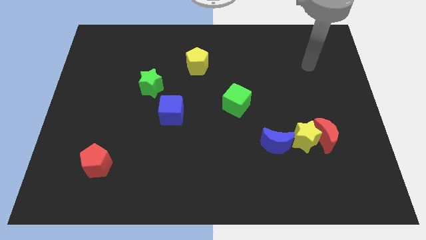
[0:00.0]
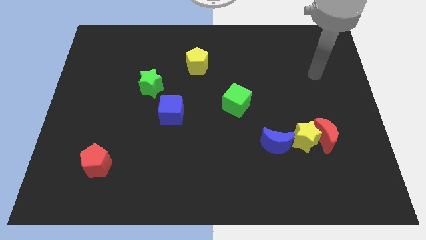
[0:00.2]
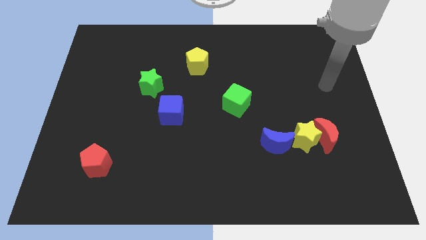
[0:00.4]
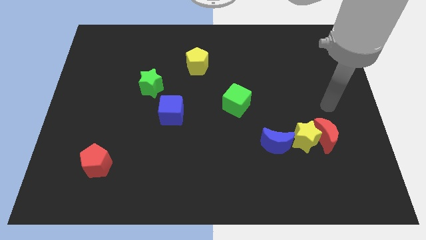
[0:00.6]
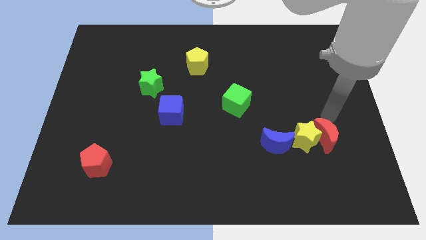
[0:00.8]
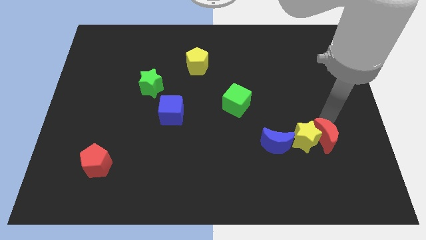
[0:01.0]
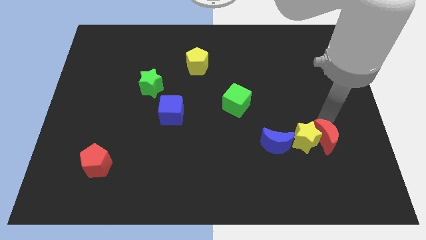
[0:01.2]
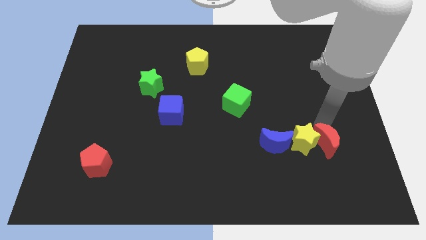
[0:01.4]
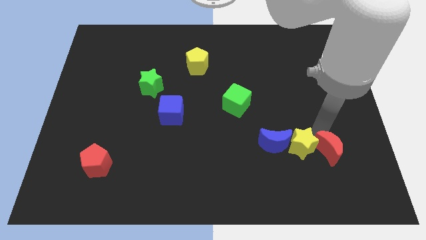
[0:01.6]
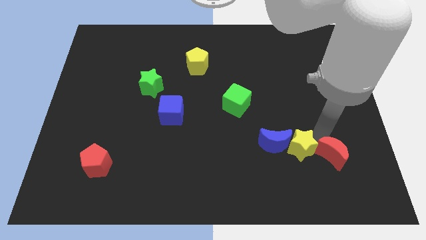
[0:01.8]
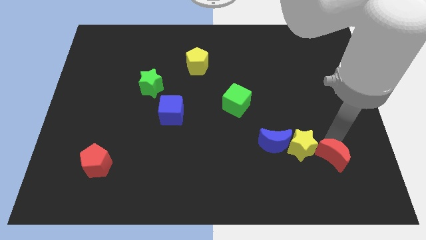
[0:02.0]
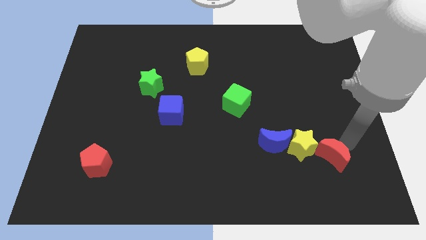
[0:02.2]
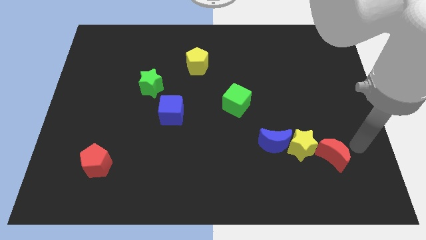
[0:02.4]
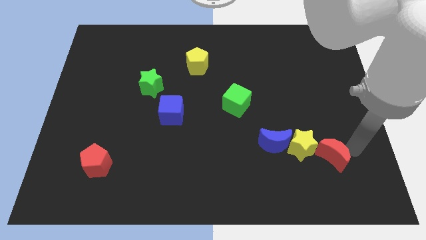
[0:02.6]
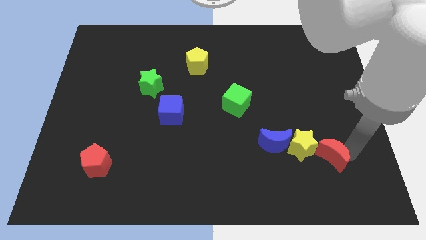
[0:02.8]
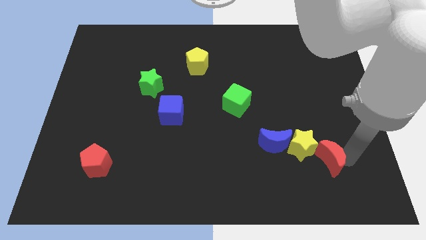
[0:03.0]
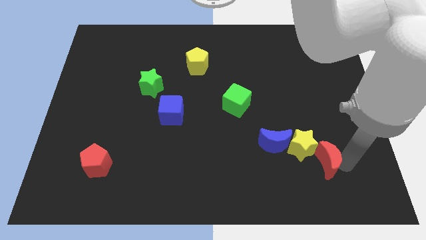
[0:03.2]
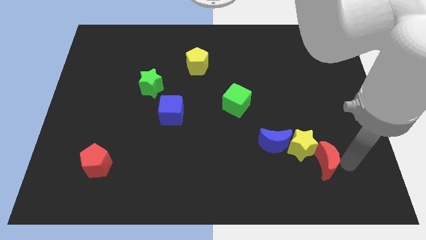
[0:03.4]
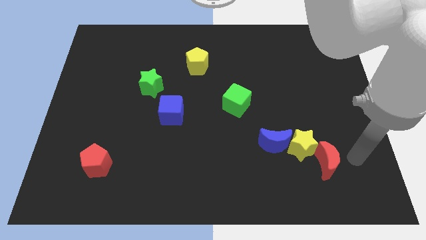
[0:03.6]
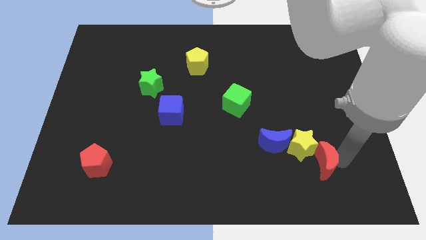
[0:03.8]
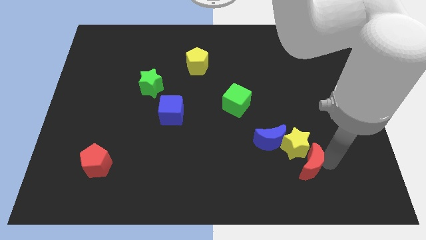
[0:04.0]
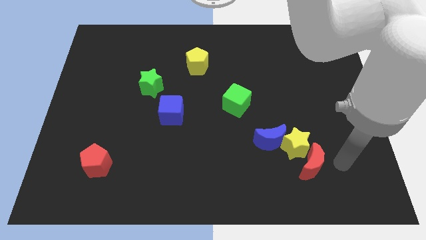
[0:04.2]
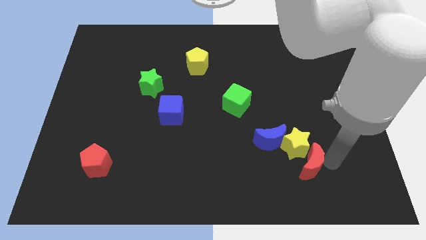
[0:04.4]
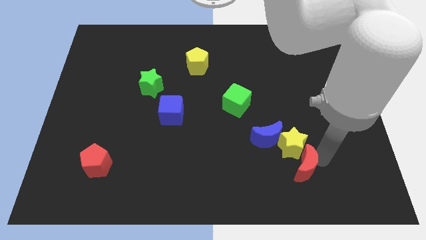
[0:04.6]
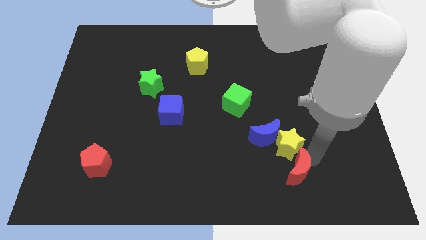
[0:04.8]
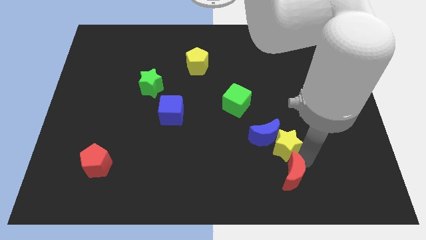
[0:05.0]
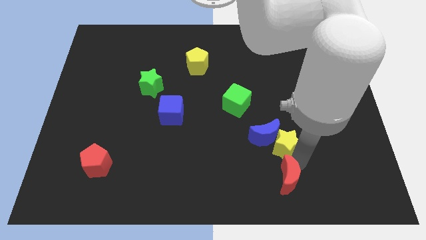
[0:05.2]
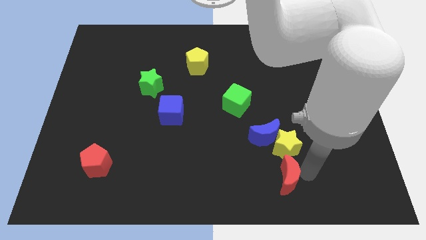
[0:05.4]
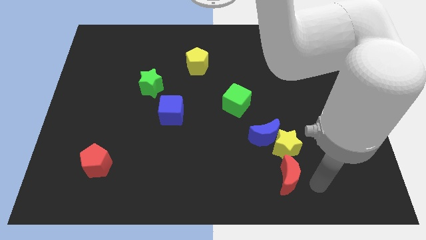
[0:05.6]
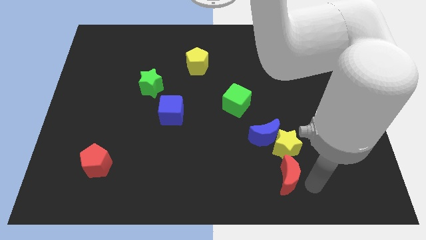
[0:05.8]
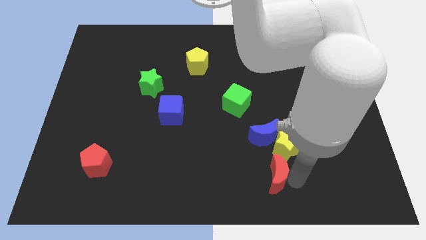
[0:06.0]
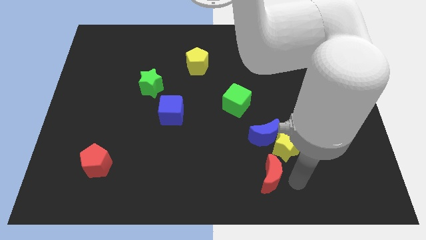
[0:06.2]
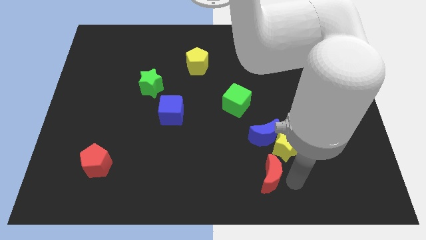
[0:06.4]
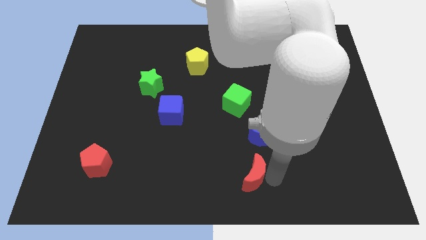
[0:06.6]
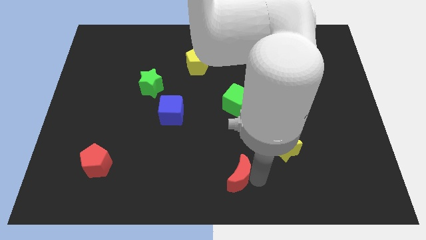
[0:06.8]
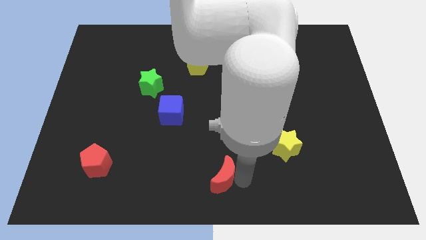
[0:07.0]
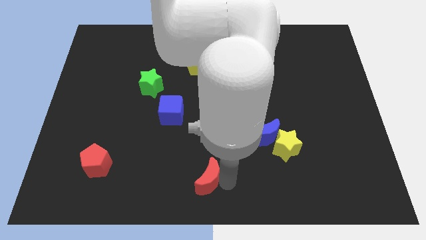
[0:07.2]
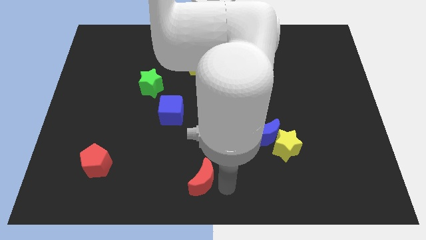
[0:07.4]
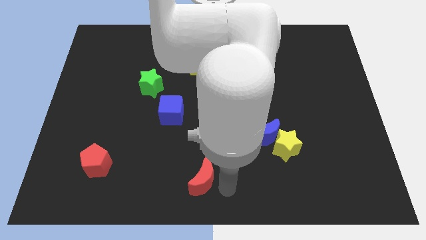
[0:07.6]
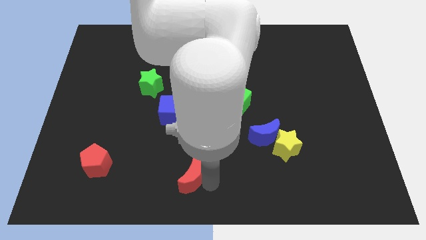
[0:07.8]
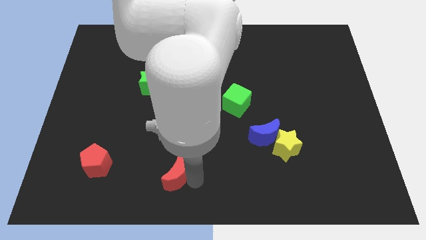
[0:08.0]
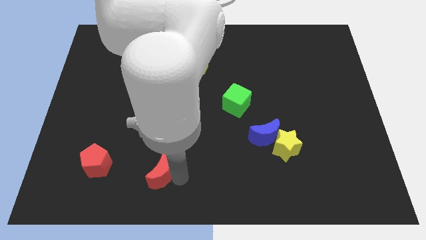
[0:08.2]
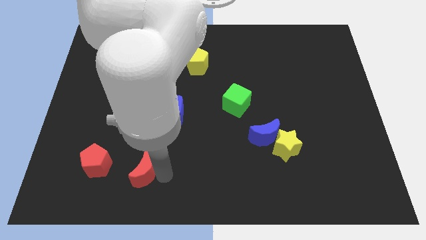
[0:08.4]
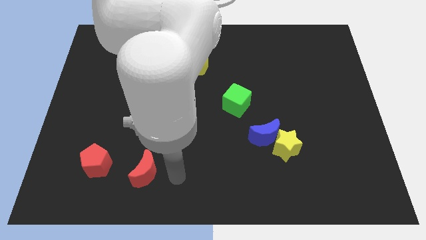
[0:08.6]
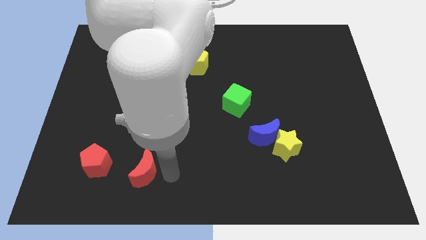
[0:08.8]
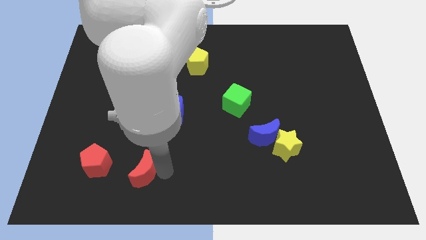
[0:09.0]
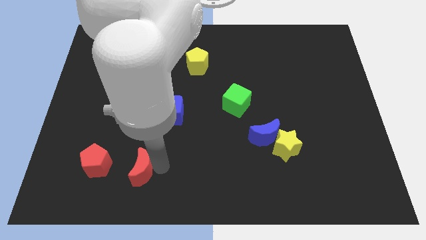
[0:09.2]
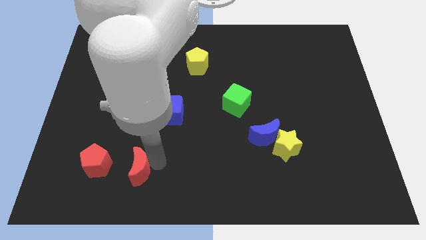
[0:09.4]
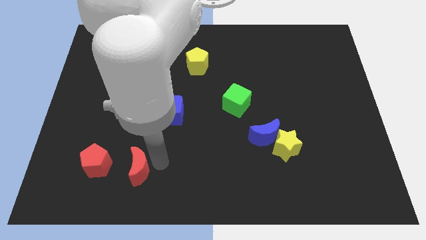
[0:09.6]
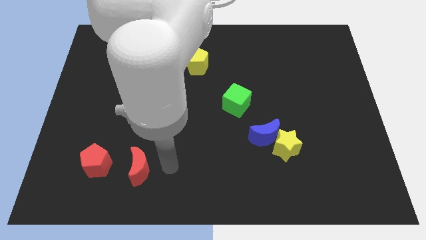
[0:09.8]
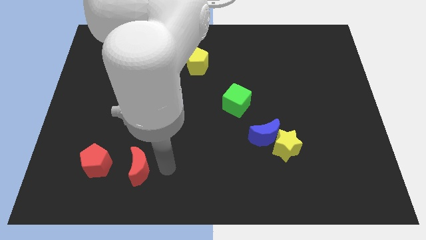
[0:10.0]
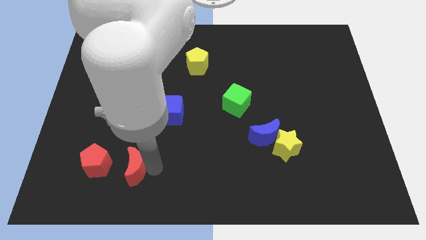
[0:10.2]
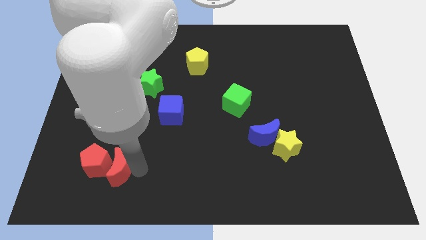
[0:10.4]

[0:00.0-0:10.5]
move the red moon to the red pentagon

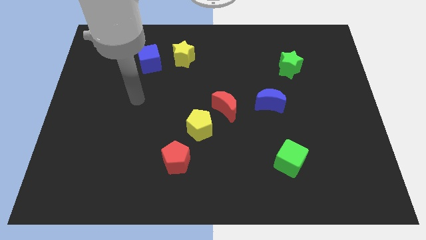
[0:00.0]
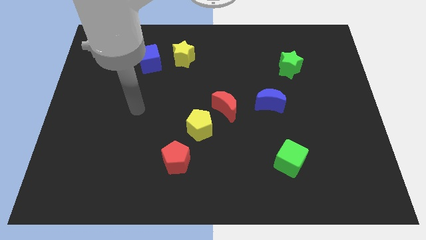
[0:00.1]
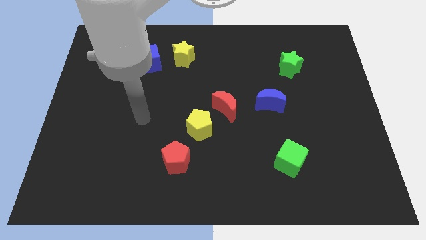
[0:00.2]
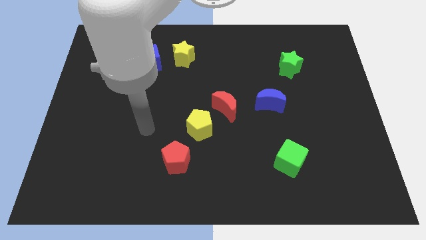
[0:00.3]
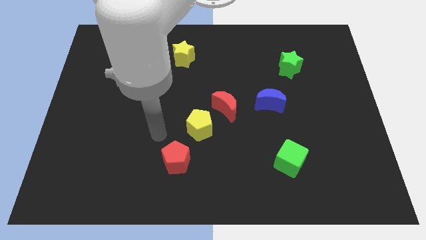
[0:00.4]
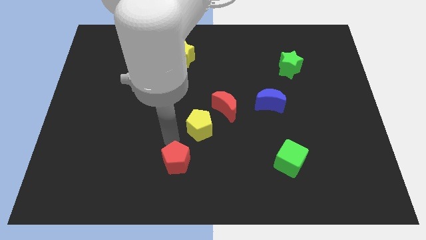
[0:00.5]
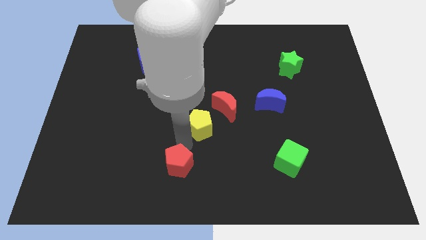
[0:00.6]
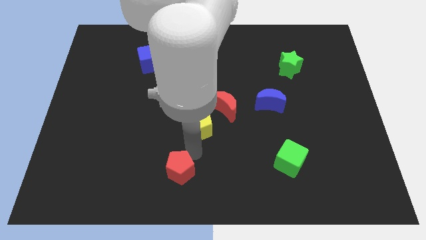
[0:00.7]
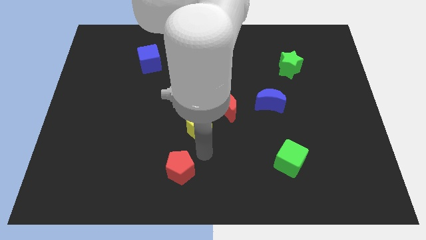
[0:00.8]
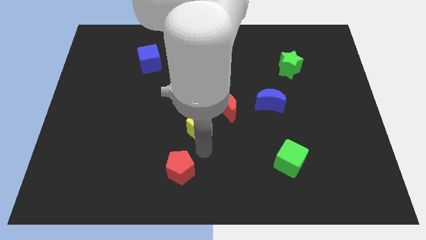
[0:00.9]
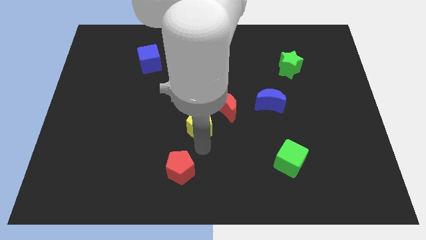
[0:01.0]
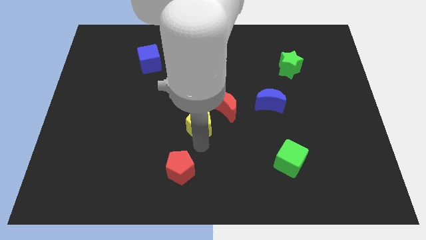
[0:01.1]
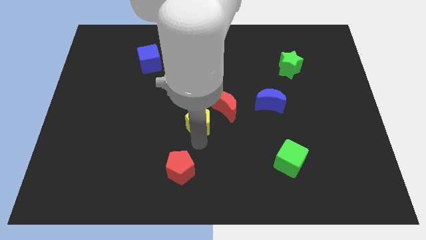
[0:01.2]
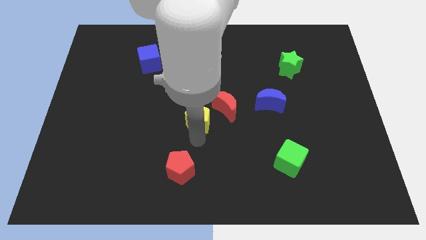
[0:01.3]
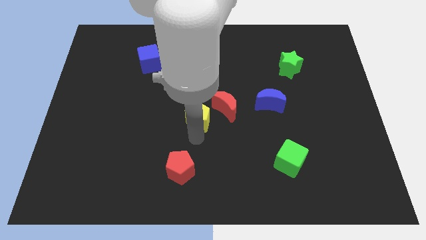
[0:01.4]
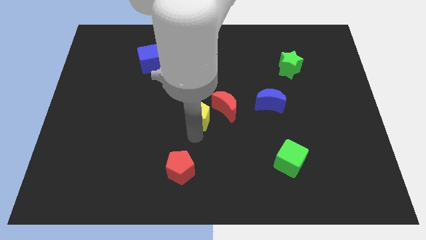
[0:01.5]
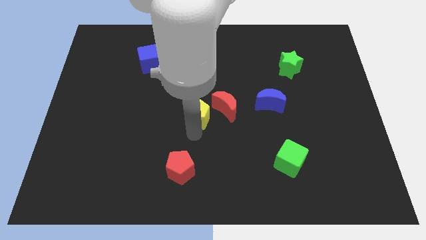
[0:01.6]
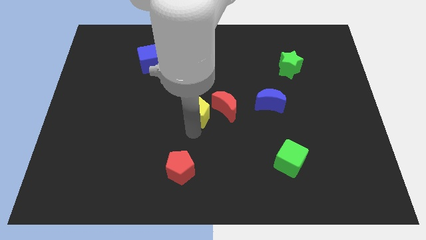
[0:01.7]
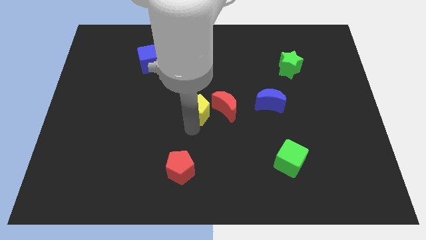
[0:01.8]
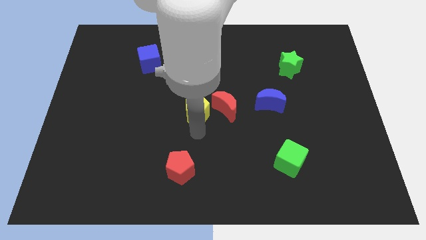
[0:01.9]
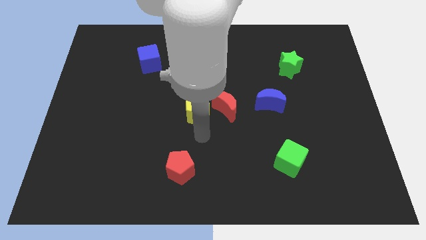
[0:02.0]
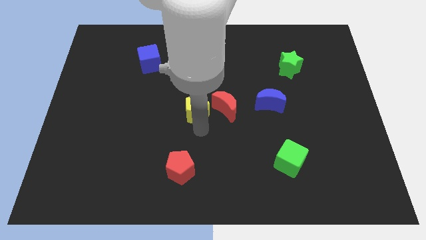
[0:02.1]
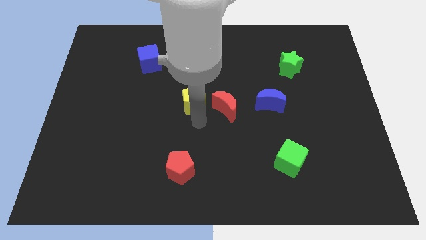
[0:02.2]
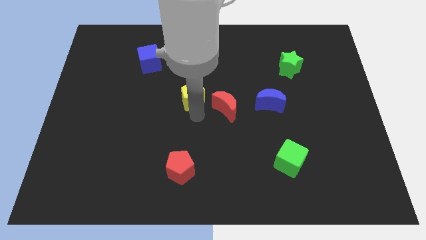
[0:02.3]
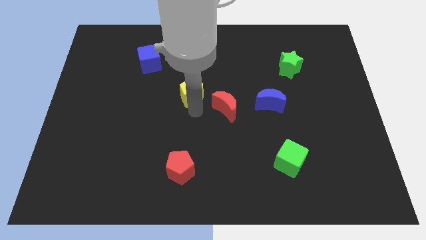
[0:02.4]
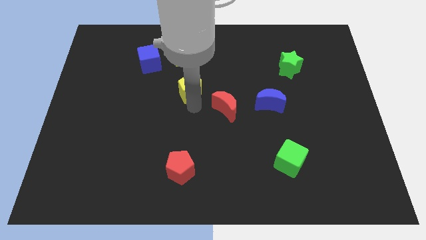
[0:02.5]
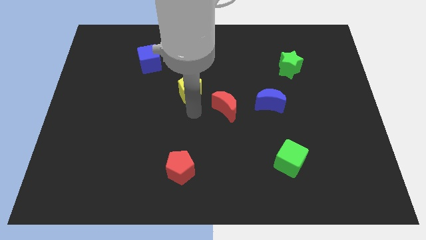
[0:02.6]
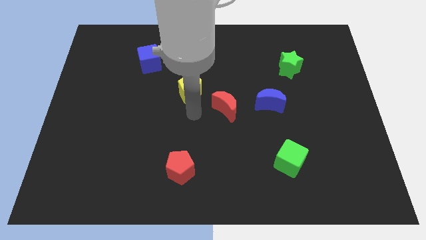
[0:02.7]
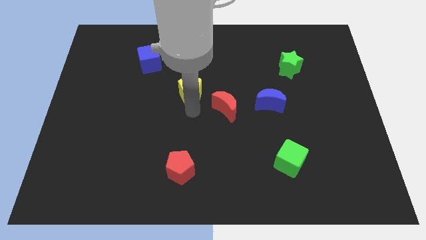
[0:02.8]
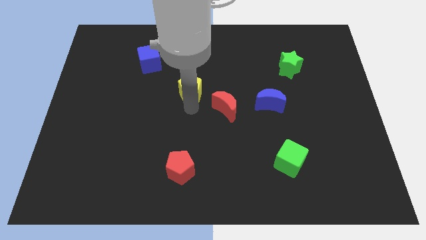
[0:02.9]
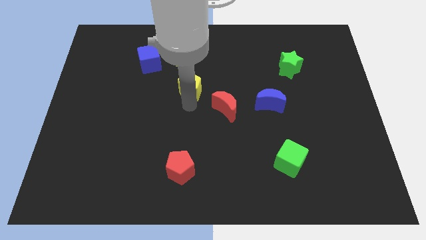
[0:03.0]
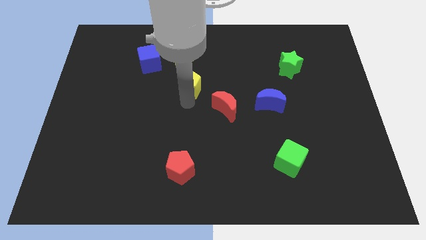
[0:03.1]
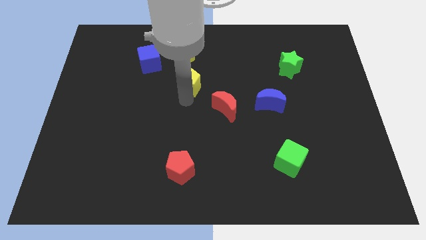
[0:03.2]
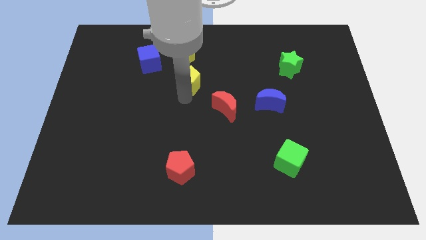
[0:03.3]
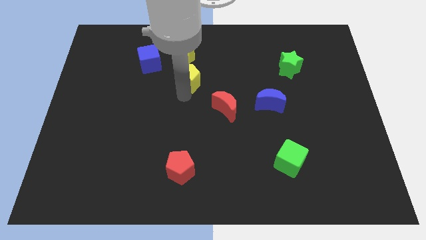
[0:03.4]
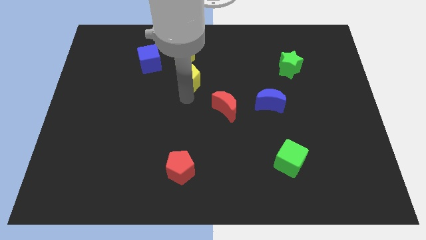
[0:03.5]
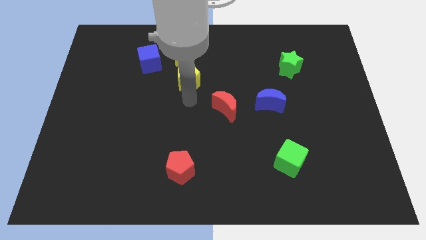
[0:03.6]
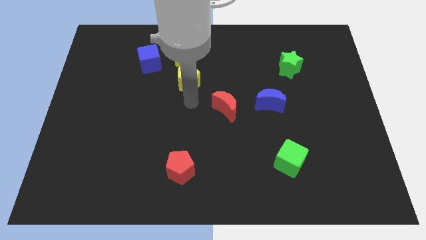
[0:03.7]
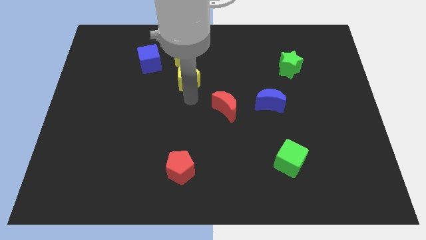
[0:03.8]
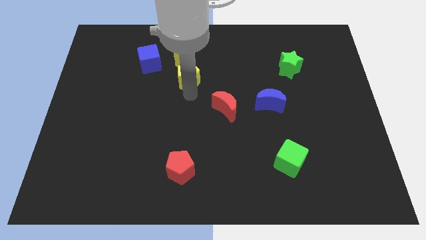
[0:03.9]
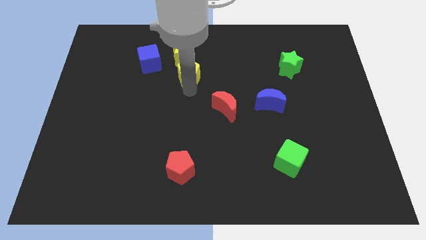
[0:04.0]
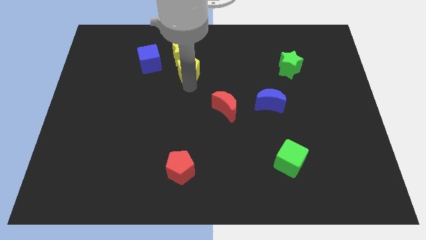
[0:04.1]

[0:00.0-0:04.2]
slide the yellow pentagon next to the yellow star
